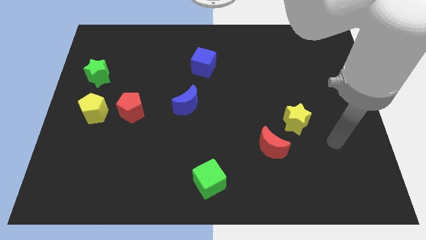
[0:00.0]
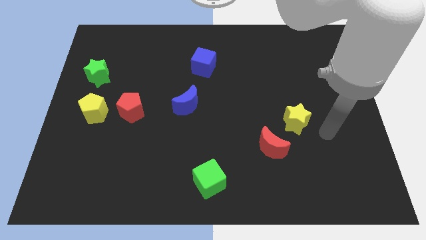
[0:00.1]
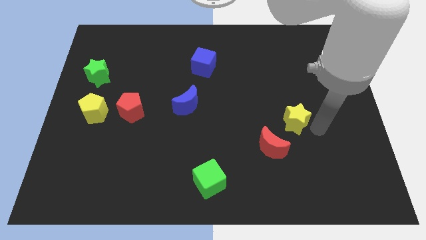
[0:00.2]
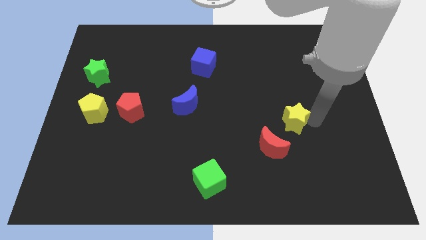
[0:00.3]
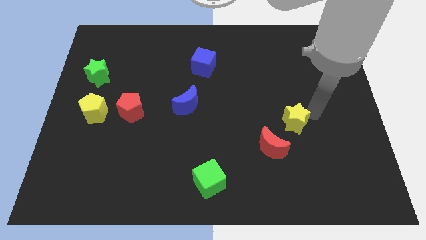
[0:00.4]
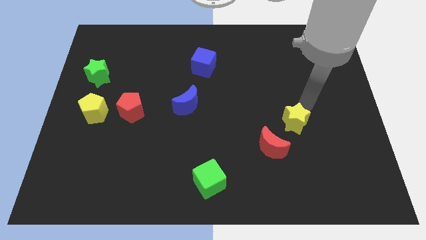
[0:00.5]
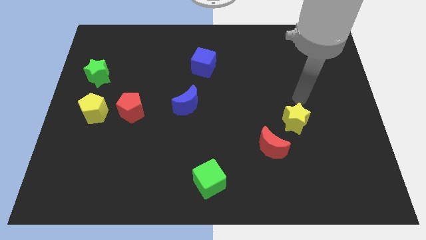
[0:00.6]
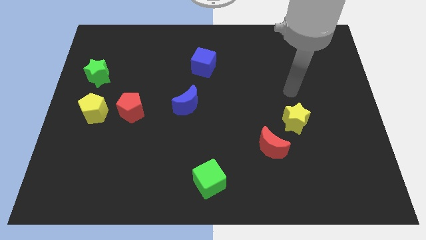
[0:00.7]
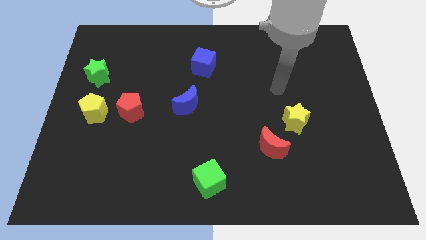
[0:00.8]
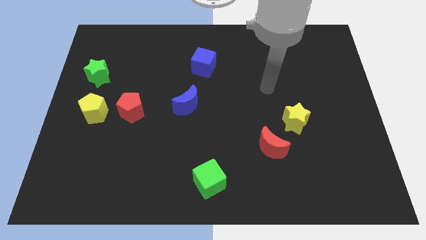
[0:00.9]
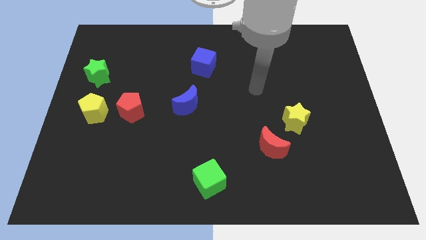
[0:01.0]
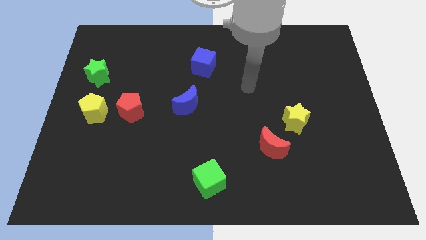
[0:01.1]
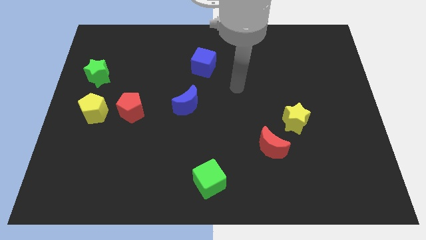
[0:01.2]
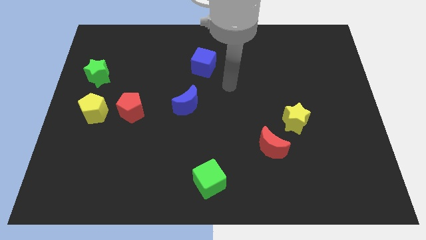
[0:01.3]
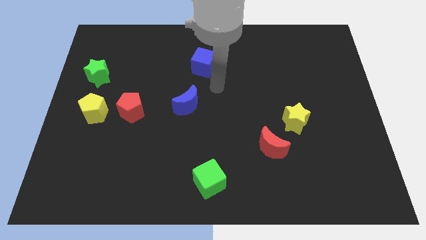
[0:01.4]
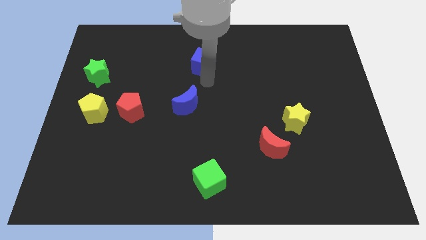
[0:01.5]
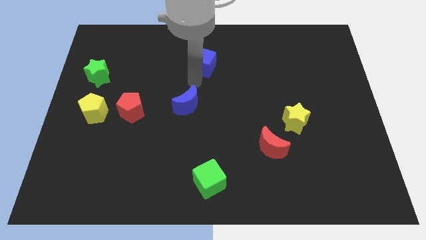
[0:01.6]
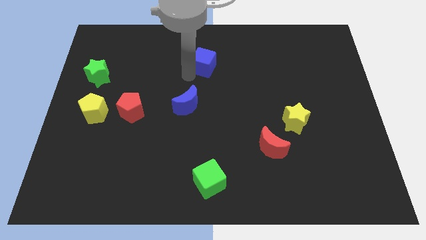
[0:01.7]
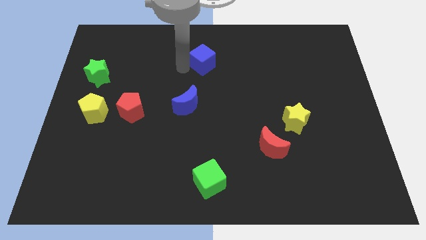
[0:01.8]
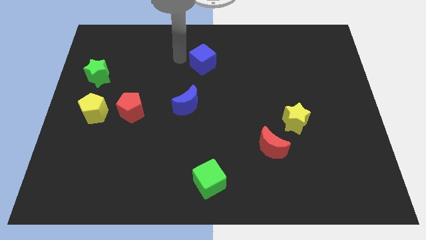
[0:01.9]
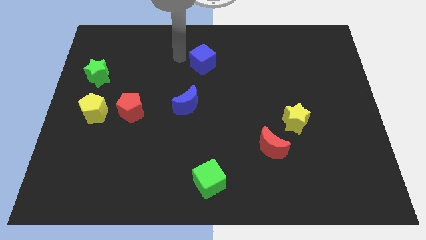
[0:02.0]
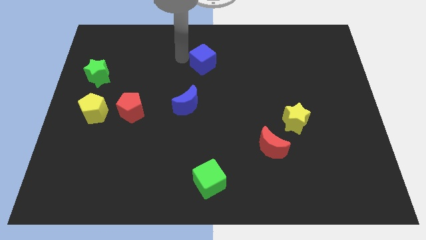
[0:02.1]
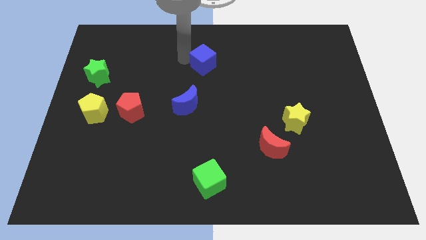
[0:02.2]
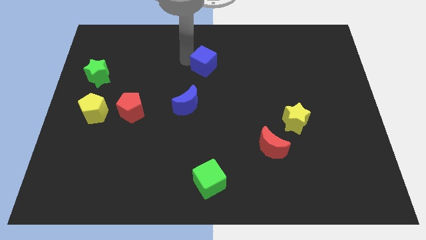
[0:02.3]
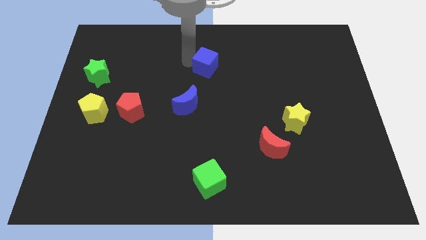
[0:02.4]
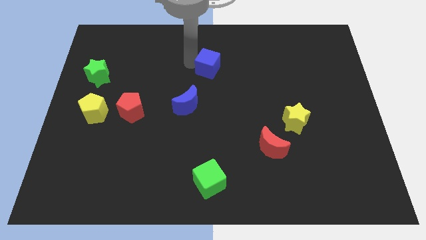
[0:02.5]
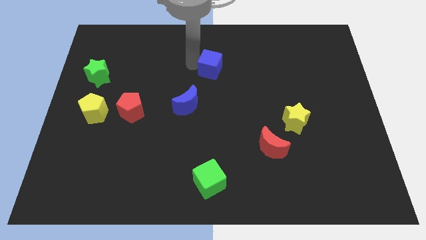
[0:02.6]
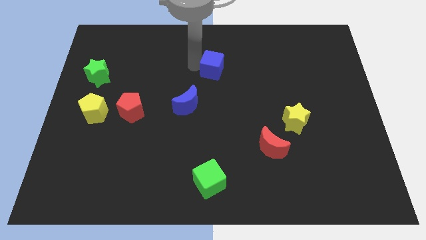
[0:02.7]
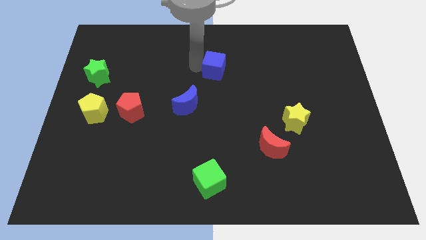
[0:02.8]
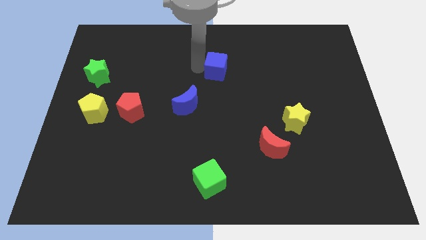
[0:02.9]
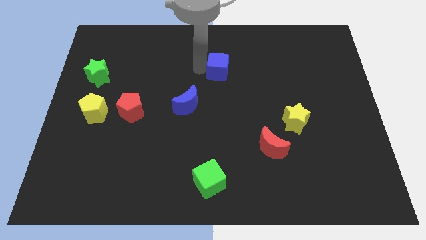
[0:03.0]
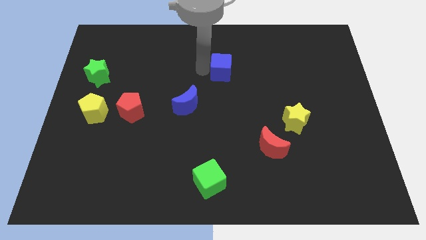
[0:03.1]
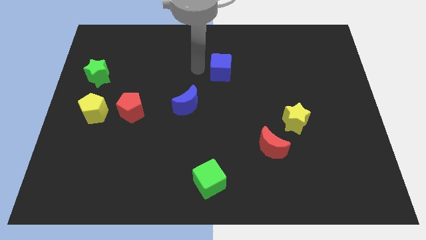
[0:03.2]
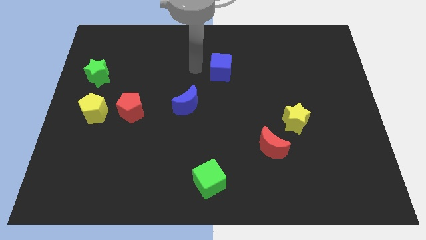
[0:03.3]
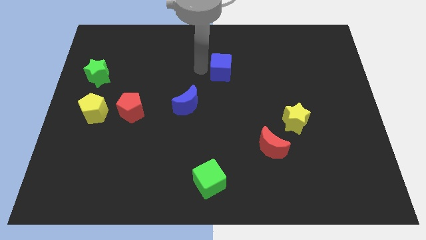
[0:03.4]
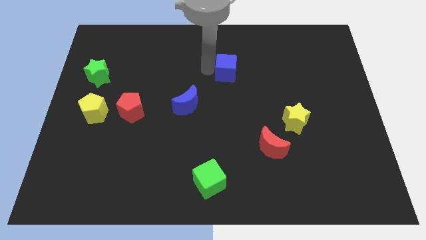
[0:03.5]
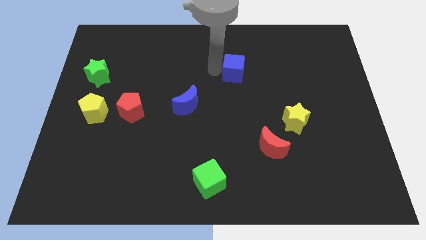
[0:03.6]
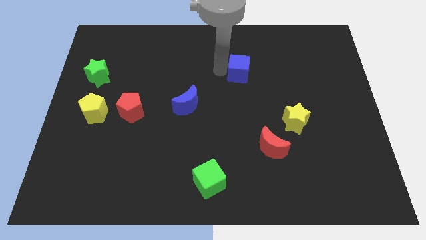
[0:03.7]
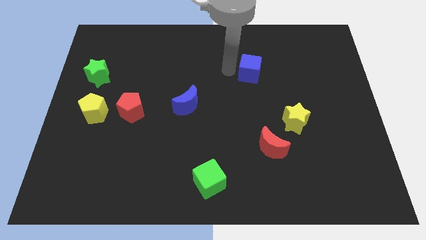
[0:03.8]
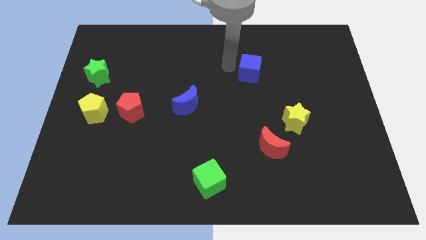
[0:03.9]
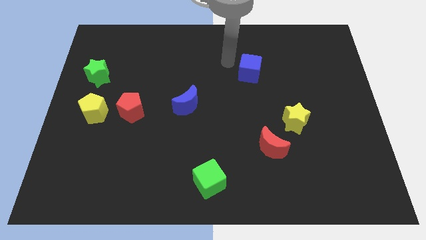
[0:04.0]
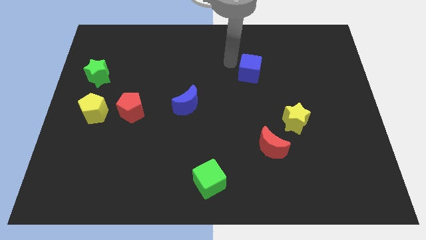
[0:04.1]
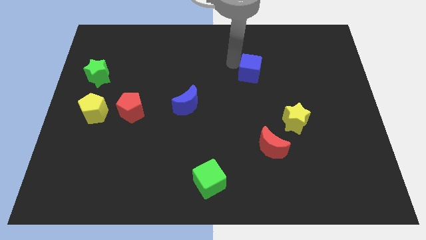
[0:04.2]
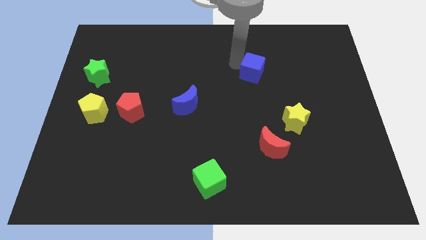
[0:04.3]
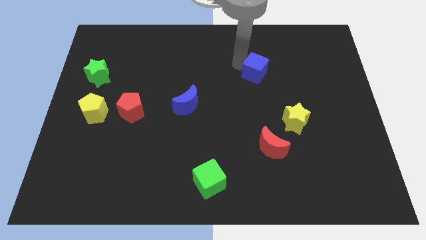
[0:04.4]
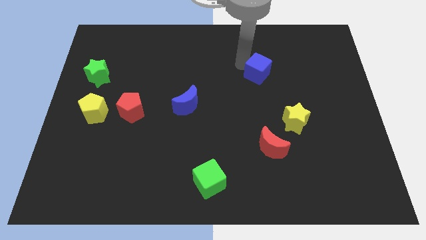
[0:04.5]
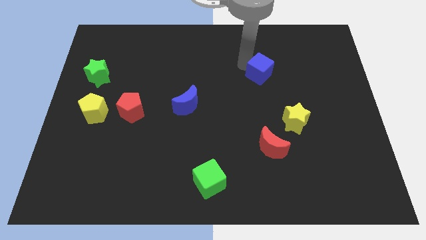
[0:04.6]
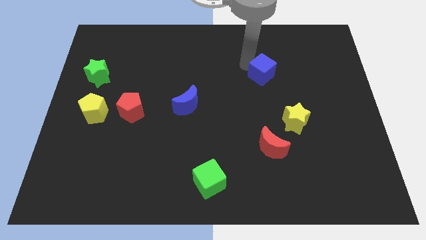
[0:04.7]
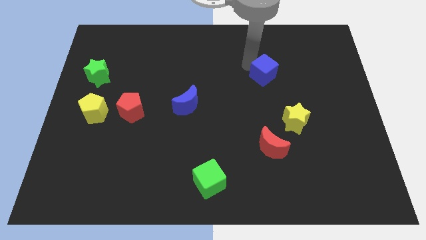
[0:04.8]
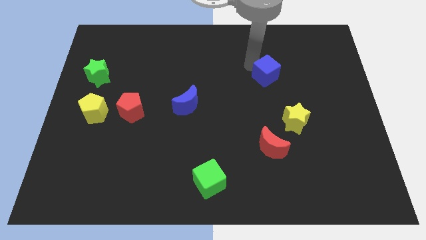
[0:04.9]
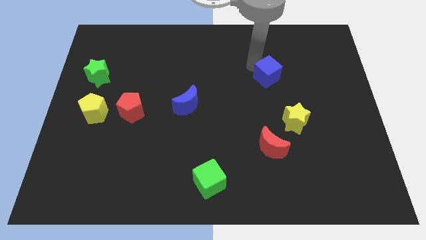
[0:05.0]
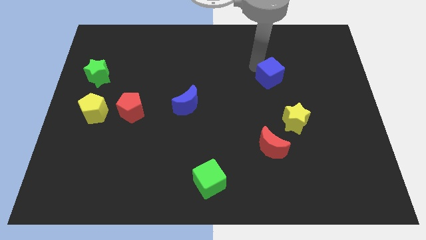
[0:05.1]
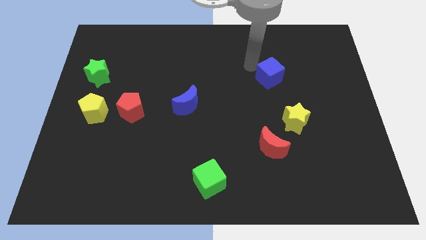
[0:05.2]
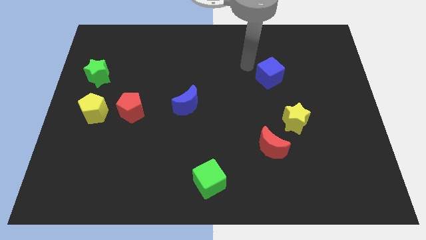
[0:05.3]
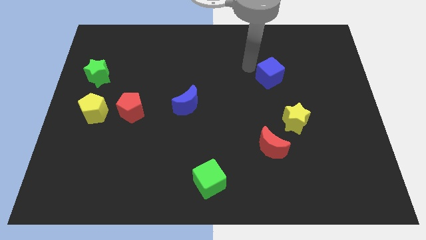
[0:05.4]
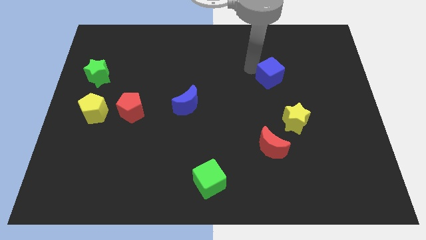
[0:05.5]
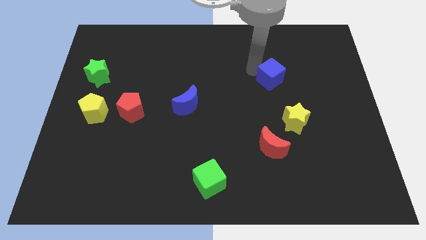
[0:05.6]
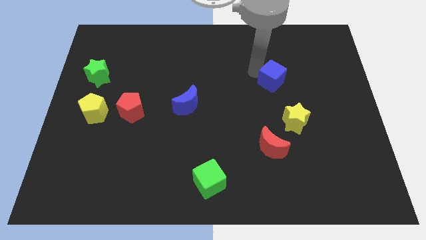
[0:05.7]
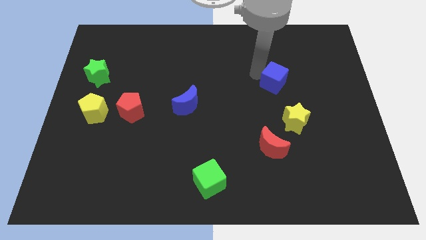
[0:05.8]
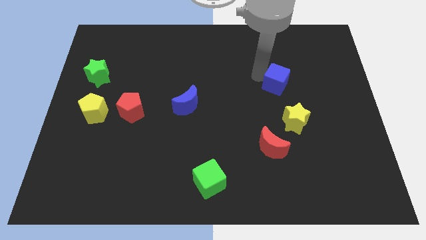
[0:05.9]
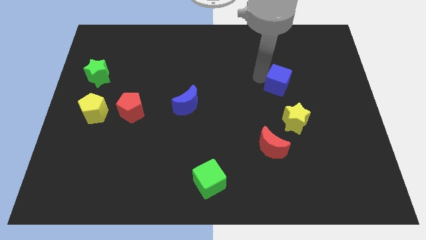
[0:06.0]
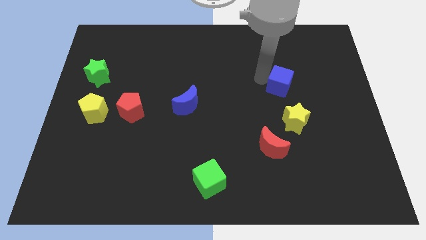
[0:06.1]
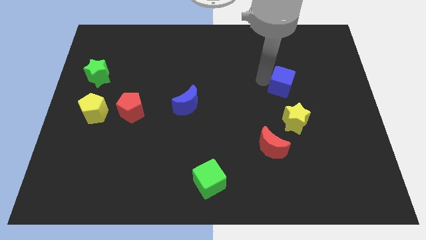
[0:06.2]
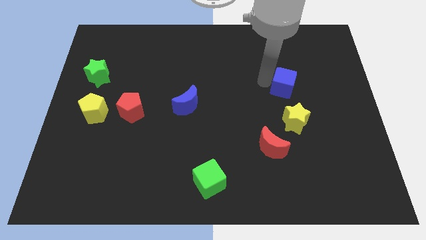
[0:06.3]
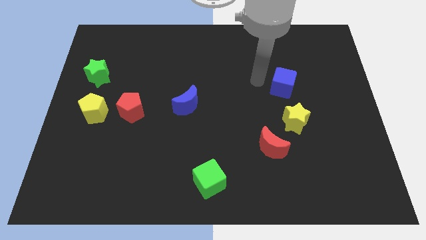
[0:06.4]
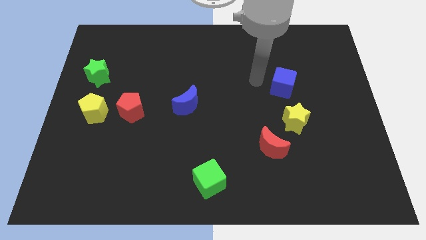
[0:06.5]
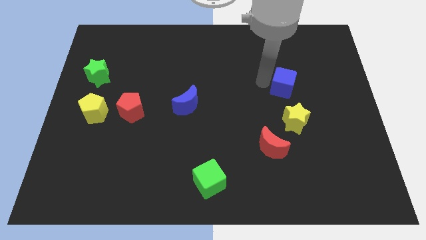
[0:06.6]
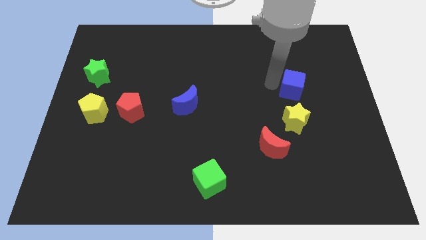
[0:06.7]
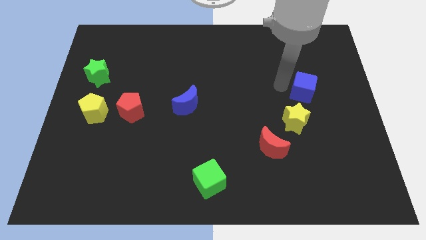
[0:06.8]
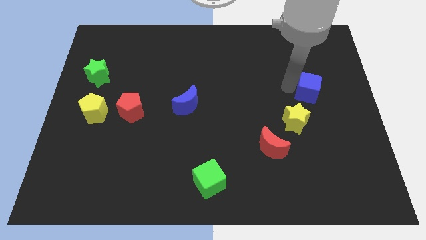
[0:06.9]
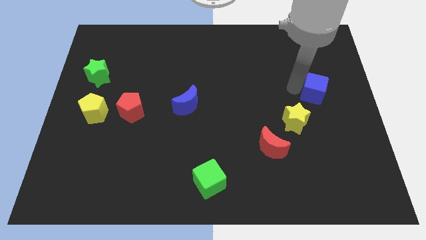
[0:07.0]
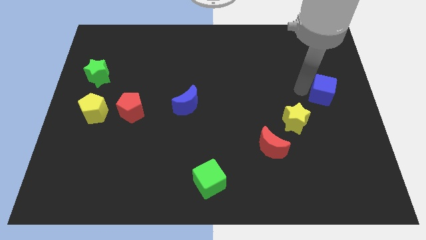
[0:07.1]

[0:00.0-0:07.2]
slide the blue cube to the center right
